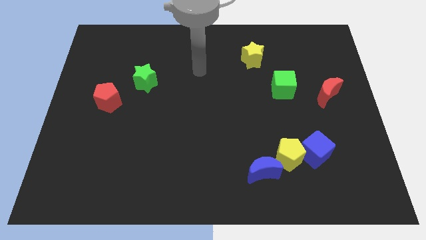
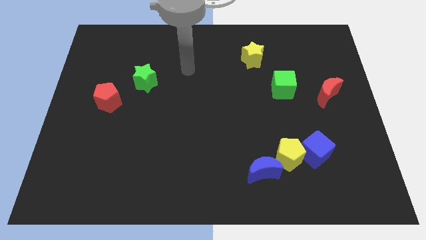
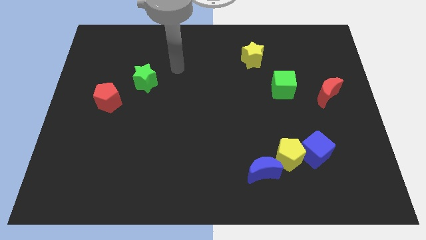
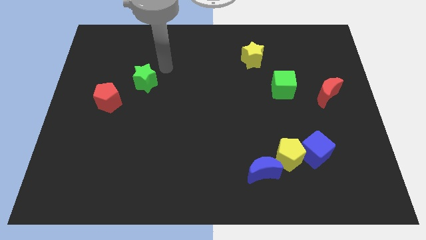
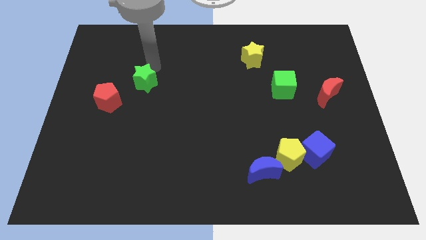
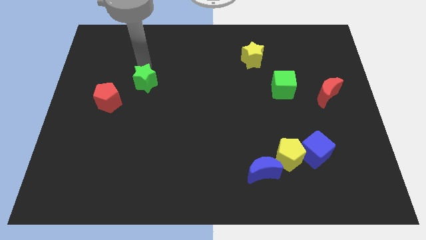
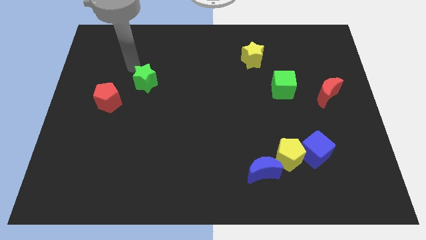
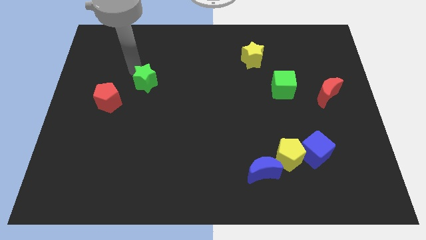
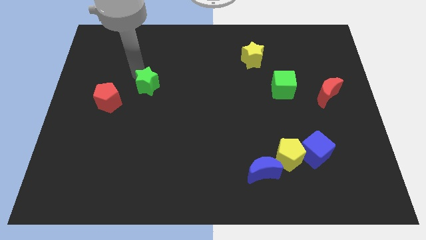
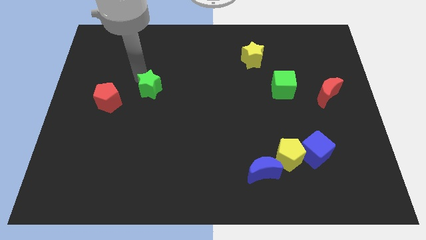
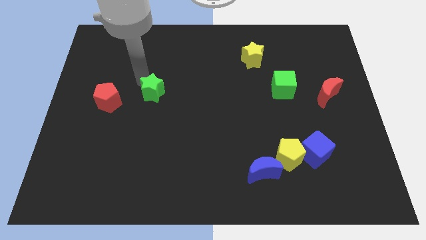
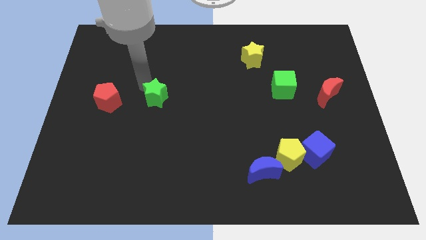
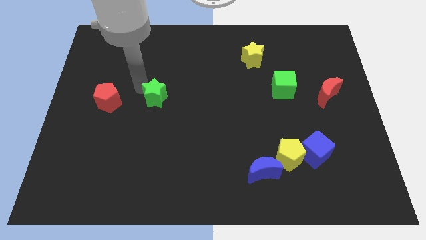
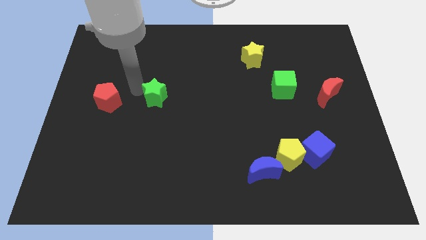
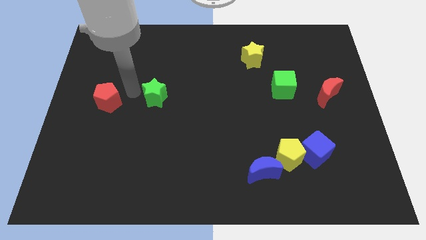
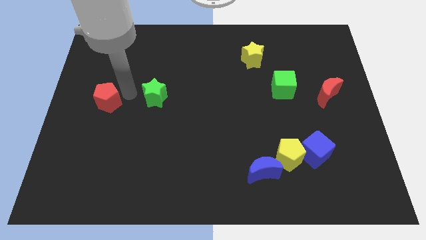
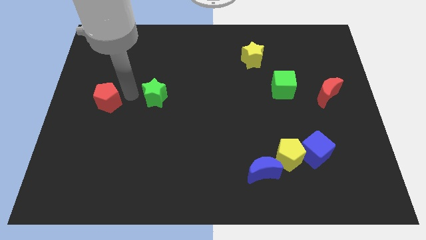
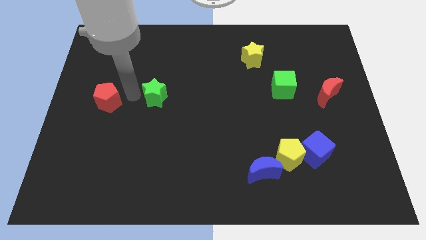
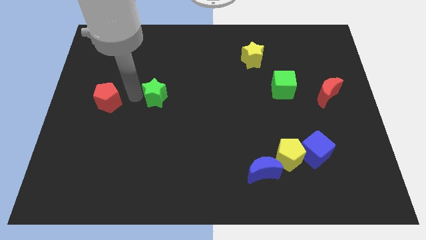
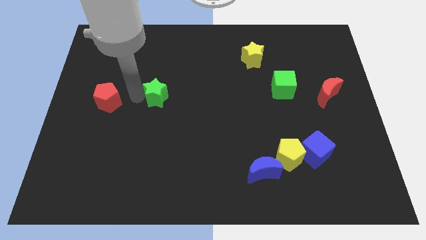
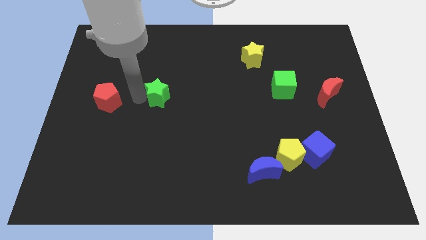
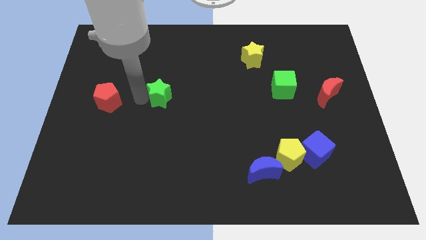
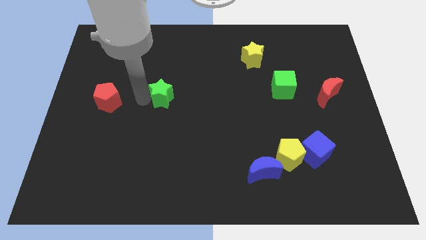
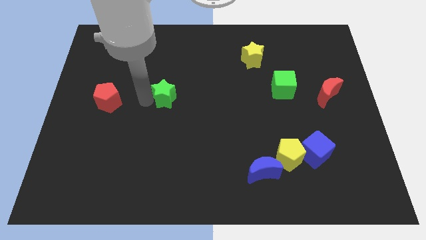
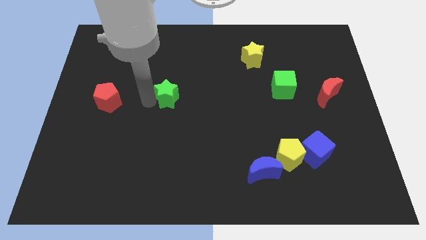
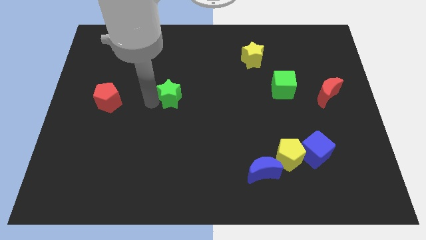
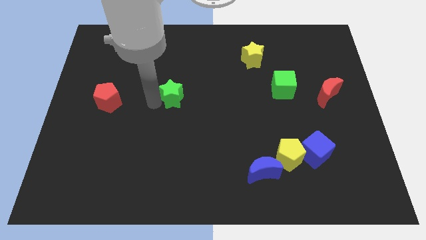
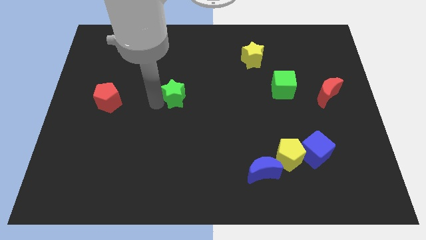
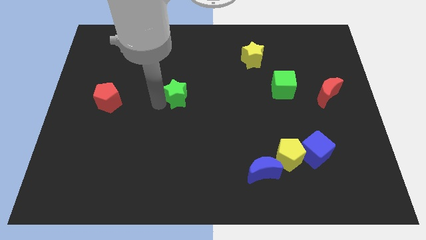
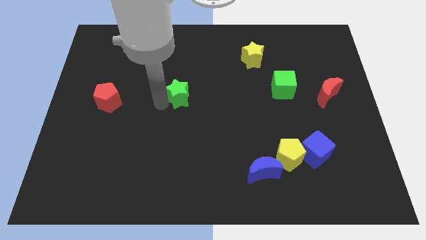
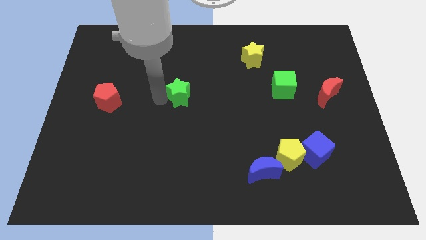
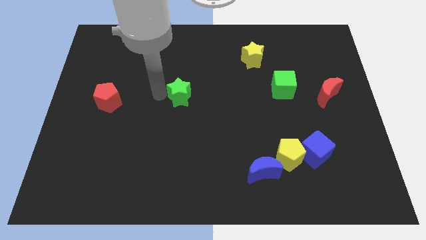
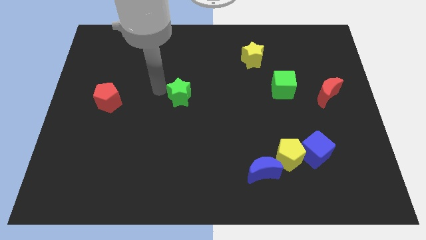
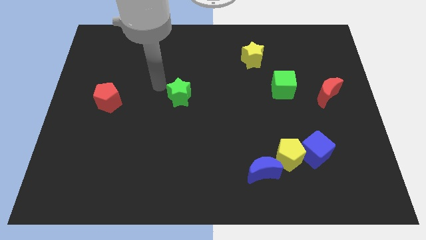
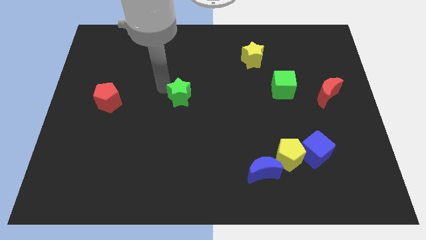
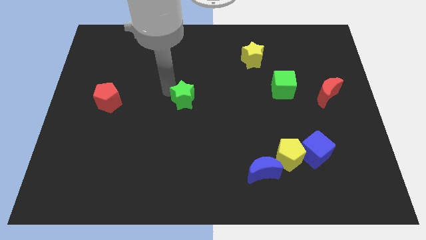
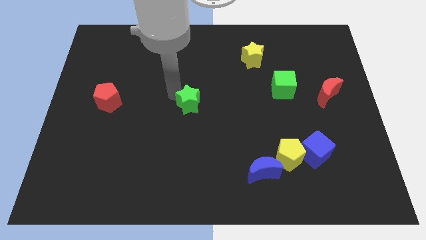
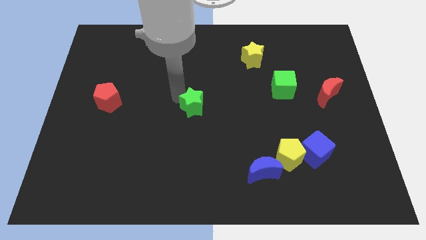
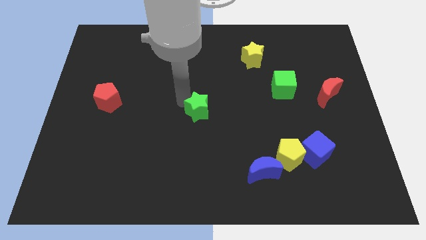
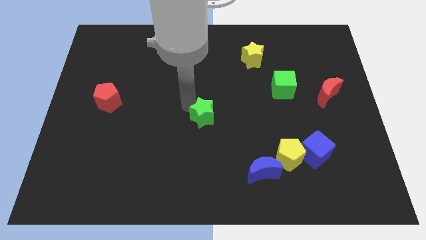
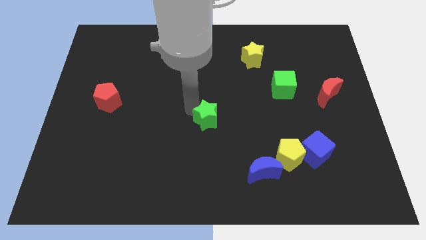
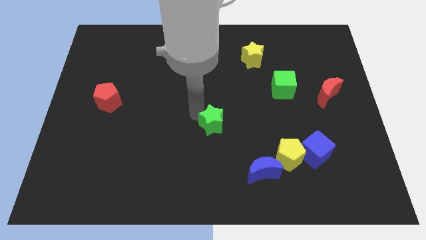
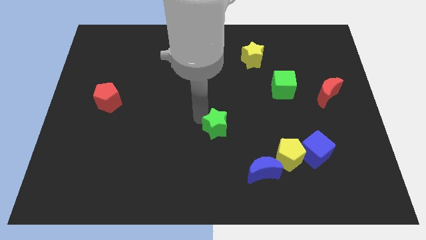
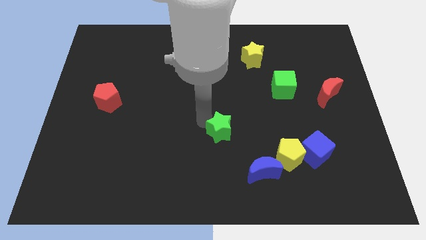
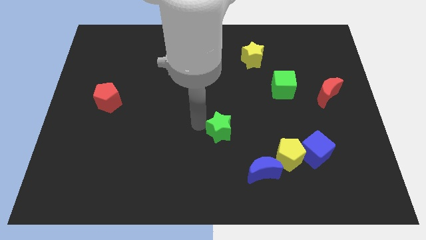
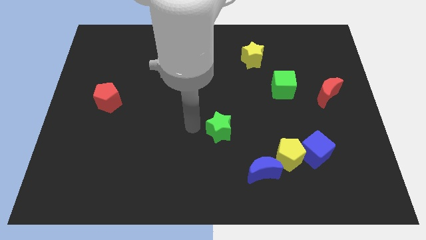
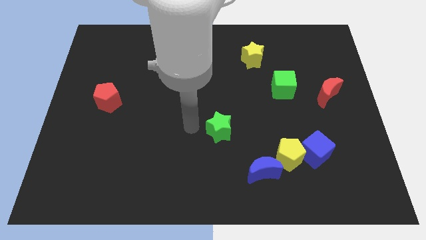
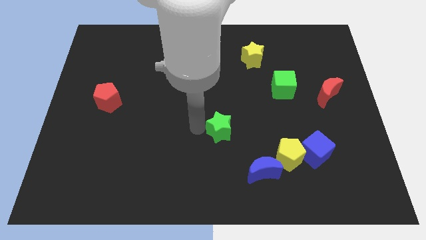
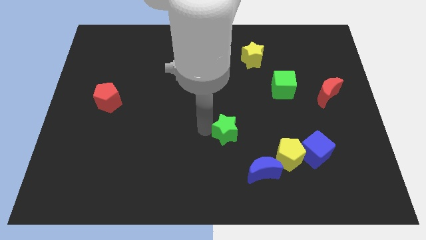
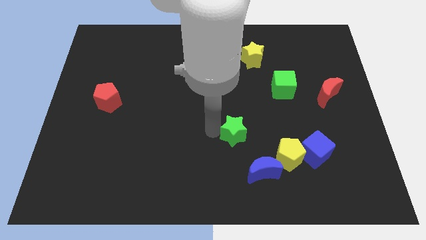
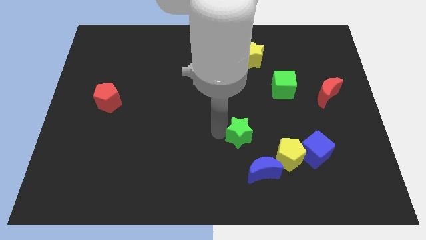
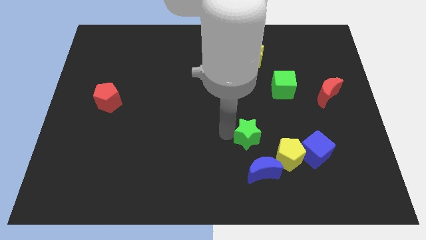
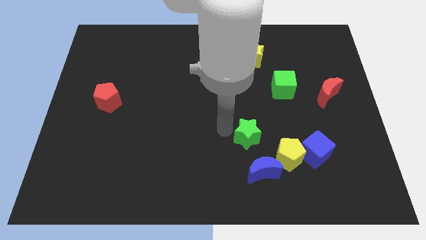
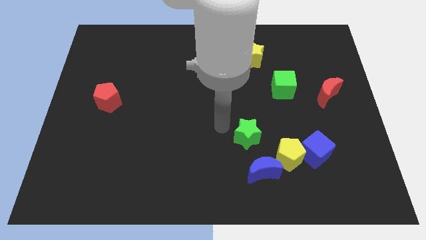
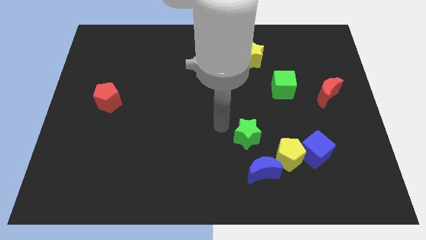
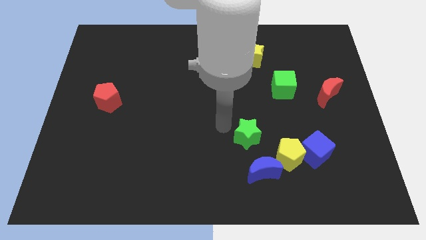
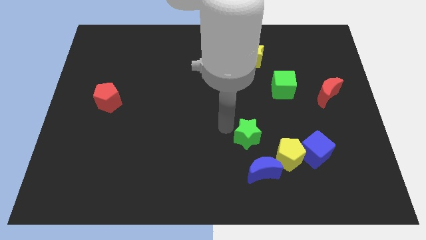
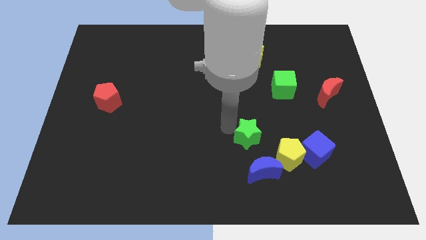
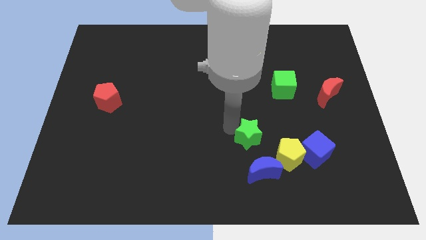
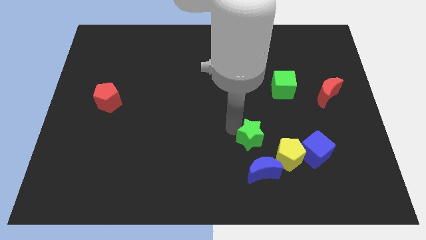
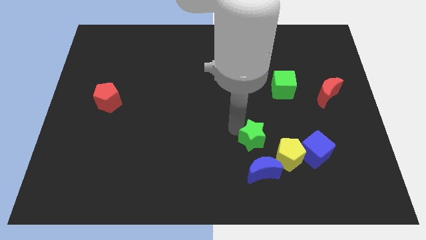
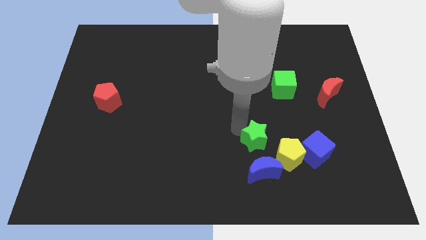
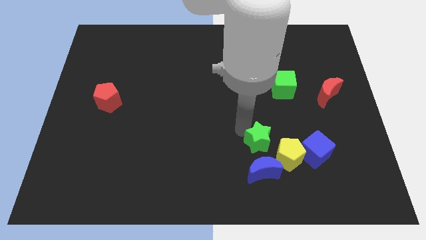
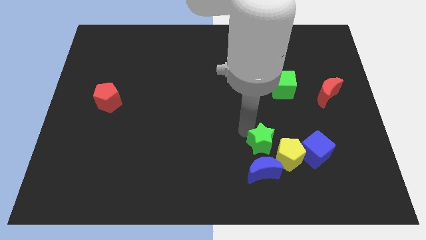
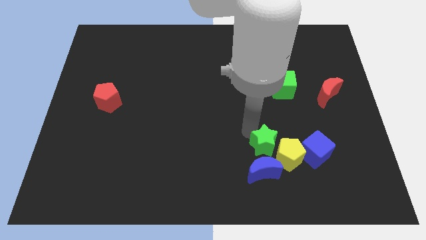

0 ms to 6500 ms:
slide the green star towards the yellow pentagon
